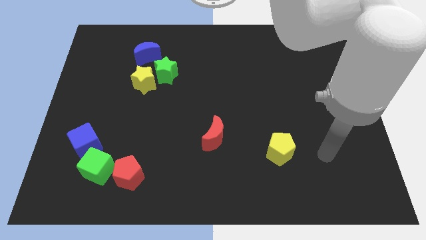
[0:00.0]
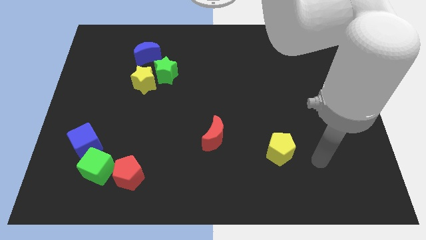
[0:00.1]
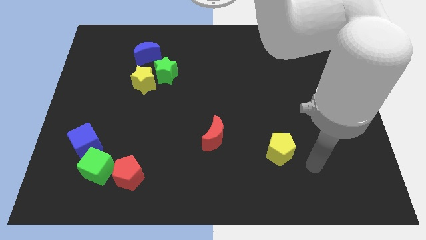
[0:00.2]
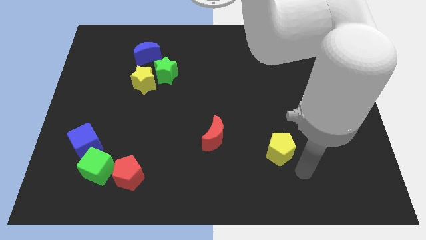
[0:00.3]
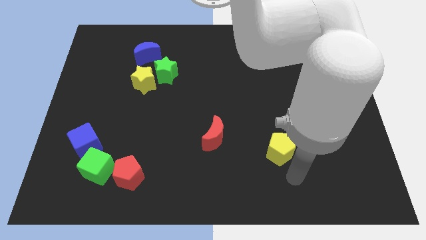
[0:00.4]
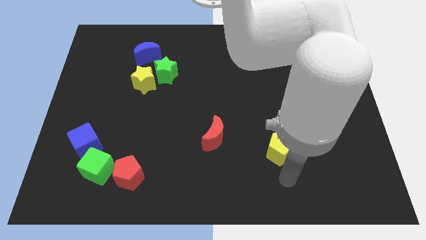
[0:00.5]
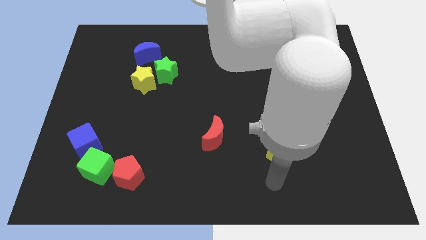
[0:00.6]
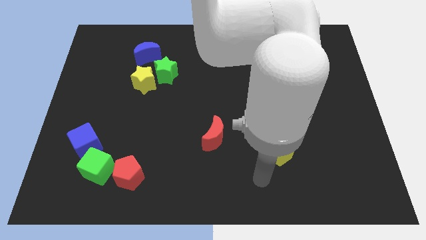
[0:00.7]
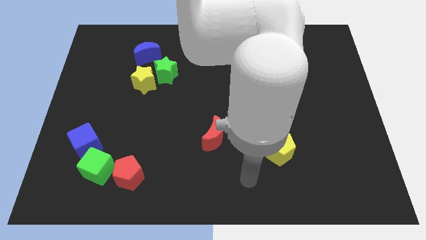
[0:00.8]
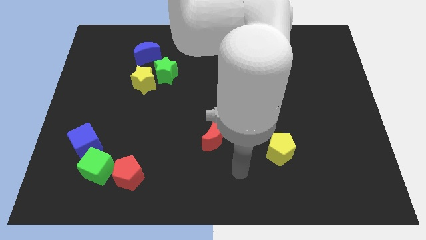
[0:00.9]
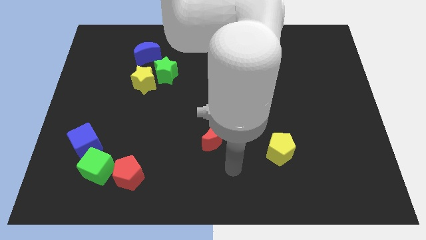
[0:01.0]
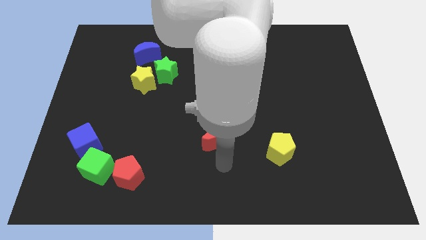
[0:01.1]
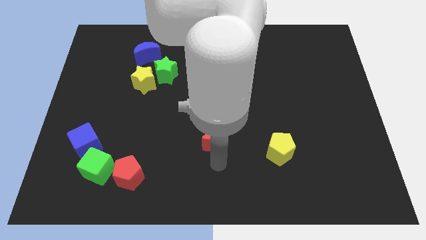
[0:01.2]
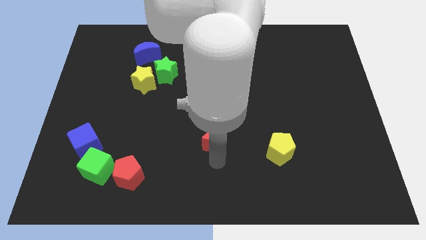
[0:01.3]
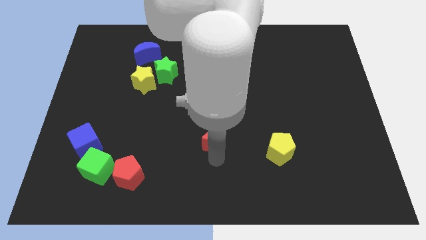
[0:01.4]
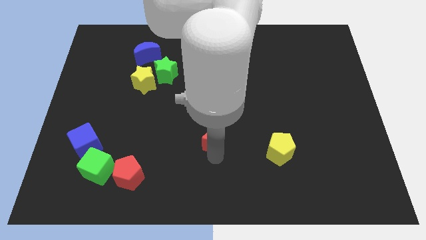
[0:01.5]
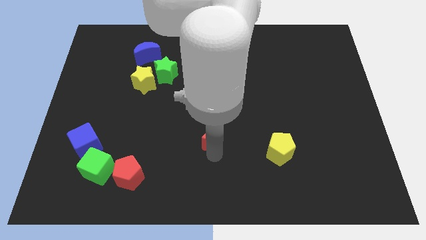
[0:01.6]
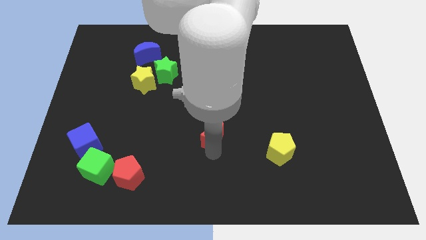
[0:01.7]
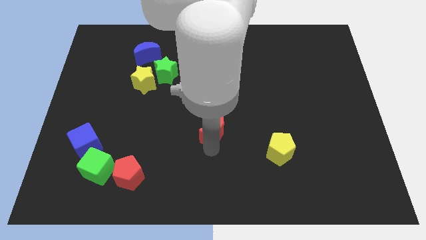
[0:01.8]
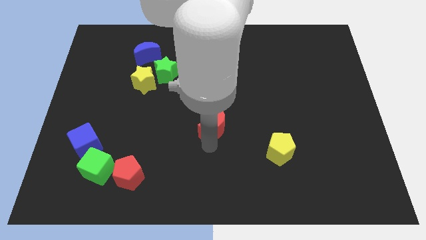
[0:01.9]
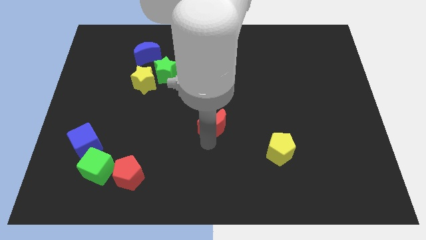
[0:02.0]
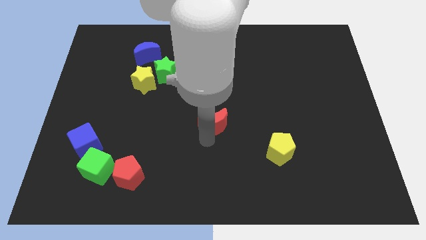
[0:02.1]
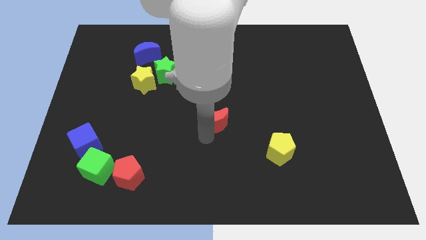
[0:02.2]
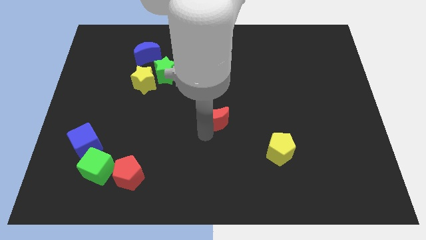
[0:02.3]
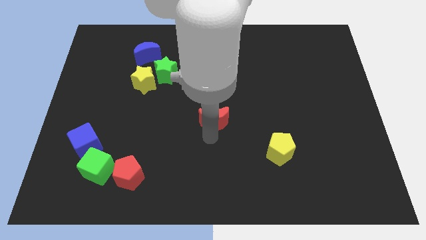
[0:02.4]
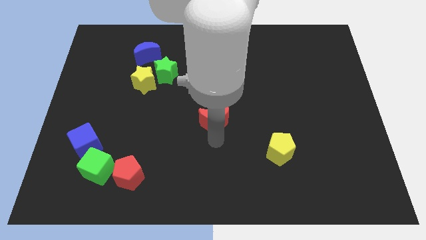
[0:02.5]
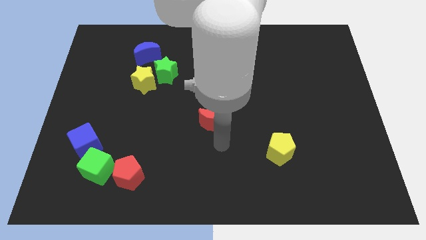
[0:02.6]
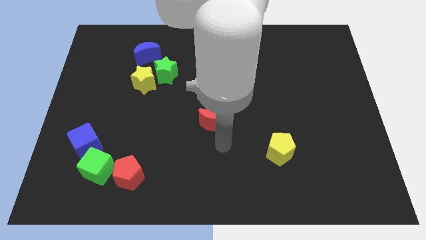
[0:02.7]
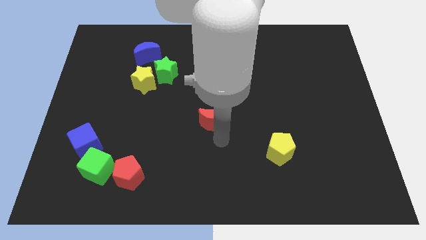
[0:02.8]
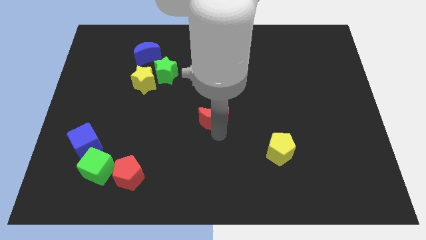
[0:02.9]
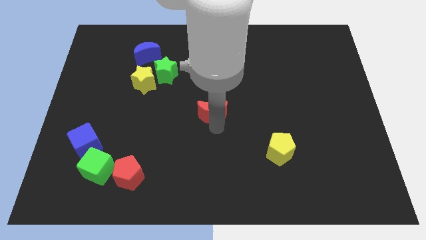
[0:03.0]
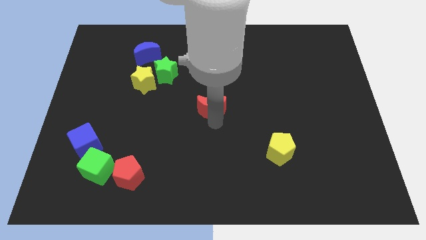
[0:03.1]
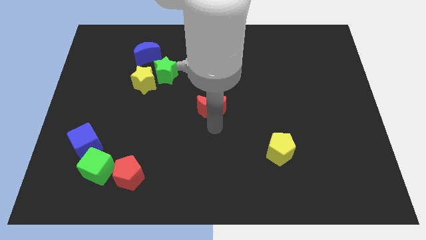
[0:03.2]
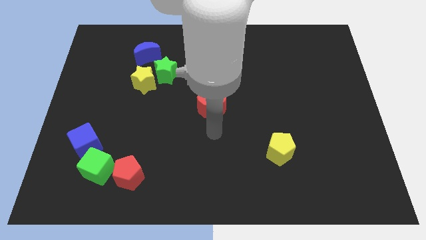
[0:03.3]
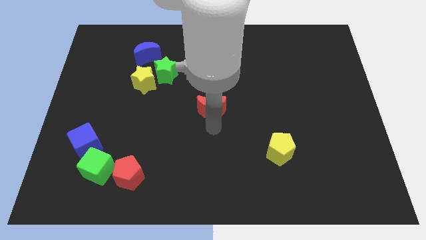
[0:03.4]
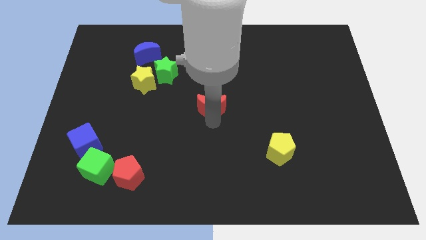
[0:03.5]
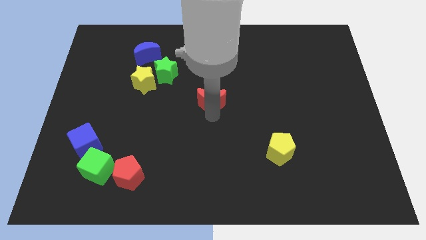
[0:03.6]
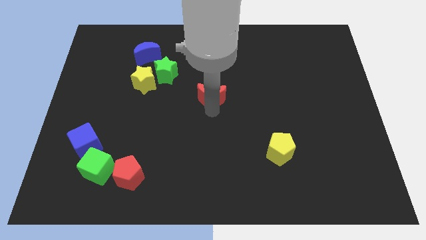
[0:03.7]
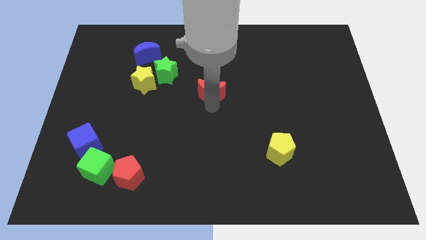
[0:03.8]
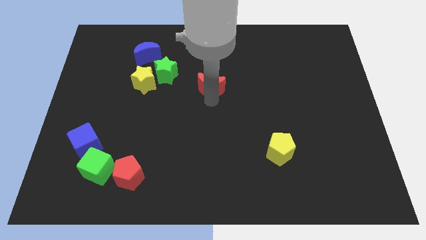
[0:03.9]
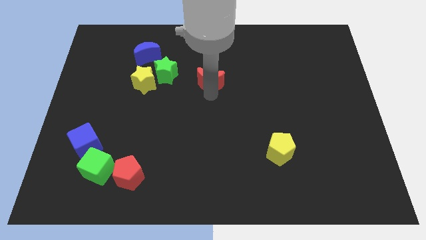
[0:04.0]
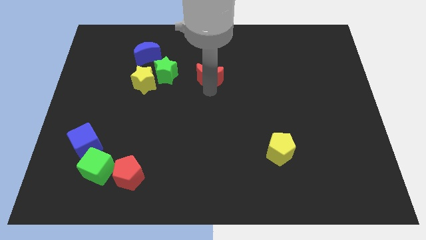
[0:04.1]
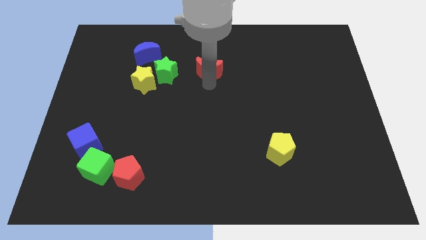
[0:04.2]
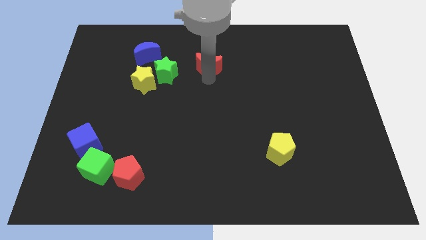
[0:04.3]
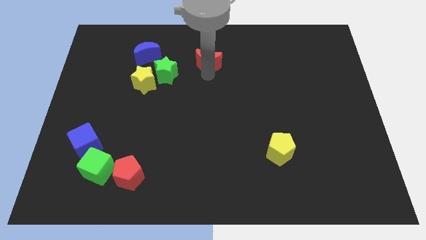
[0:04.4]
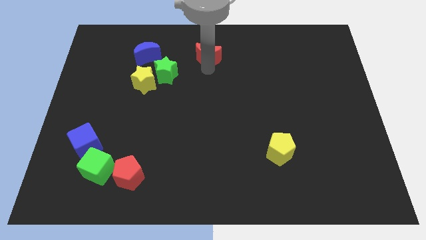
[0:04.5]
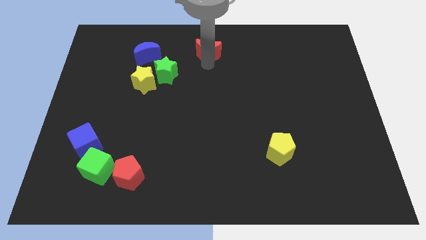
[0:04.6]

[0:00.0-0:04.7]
move the red moon to the towards your base

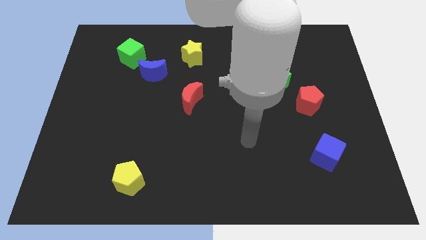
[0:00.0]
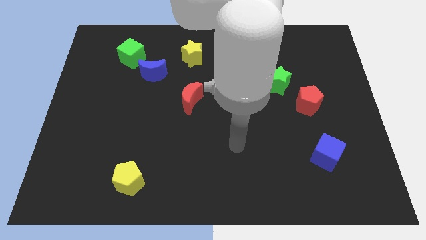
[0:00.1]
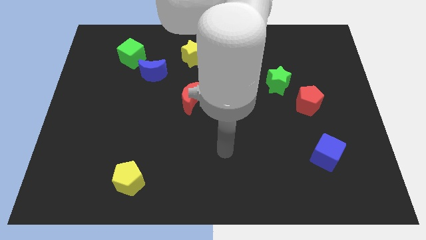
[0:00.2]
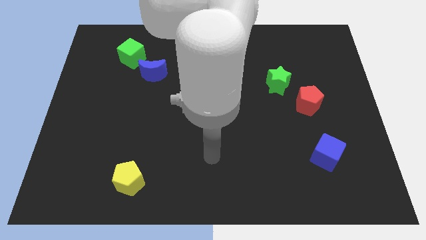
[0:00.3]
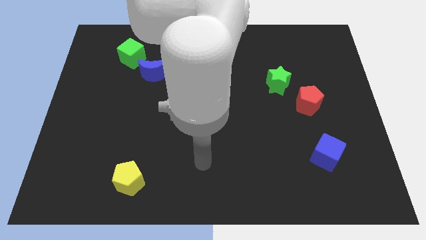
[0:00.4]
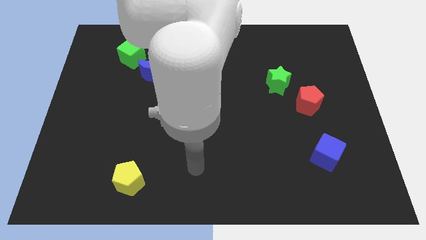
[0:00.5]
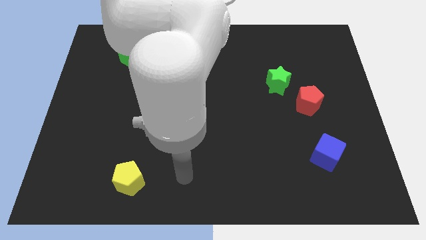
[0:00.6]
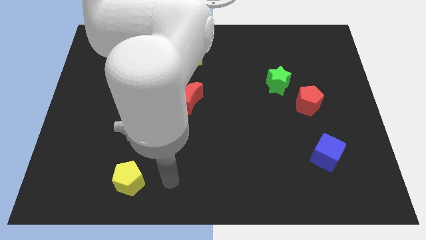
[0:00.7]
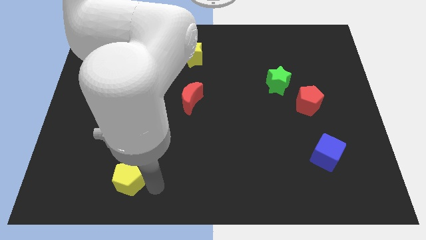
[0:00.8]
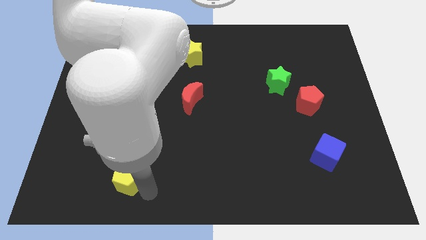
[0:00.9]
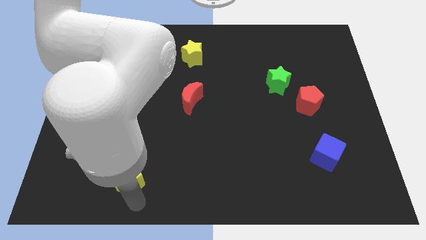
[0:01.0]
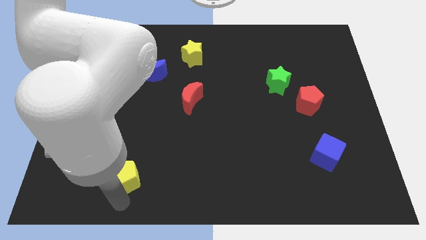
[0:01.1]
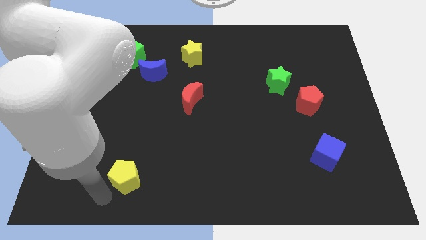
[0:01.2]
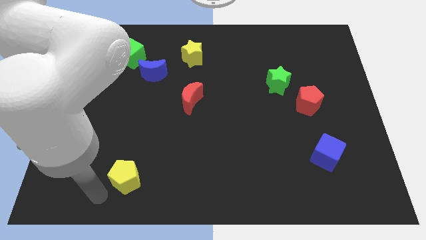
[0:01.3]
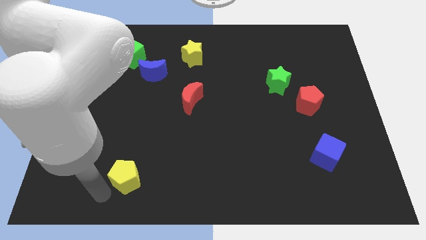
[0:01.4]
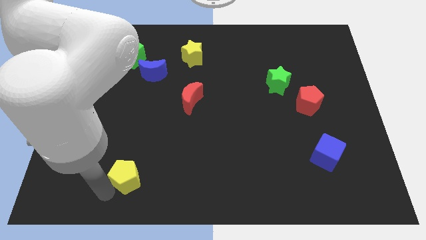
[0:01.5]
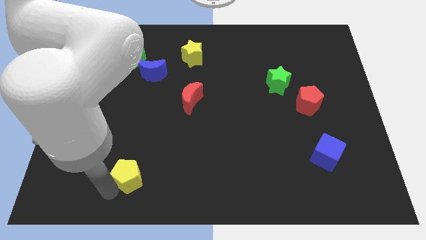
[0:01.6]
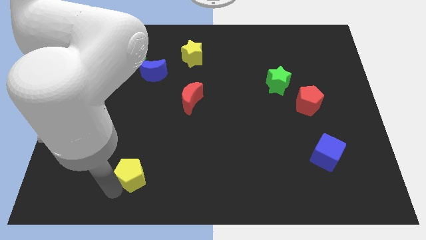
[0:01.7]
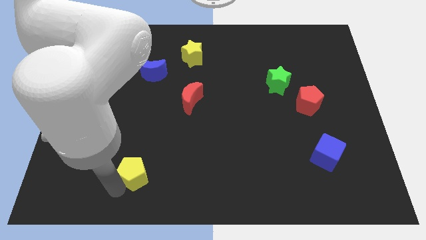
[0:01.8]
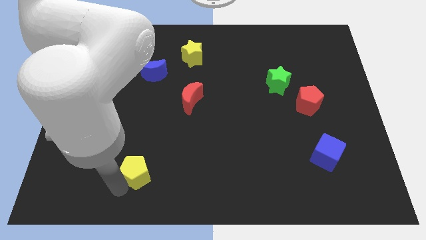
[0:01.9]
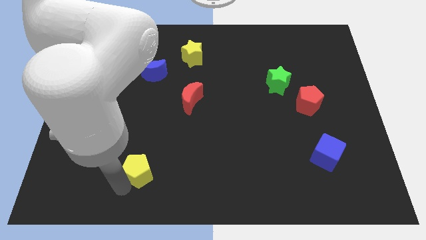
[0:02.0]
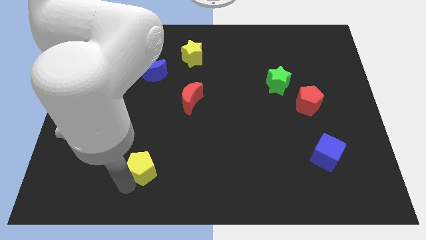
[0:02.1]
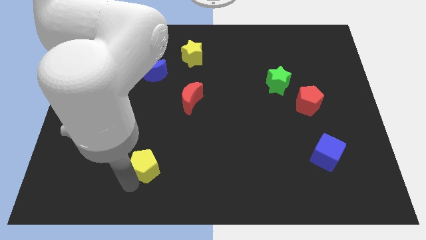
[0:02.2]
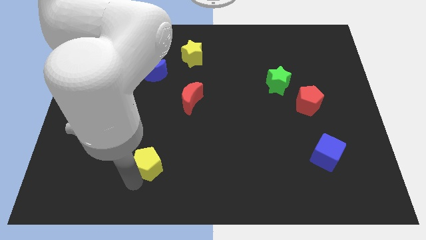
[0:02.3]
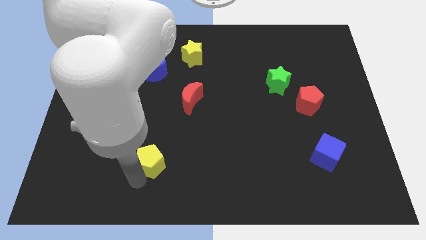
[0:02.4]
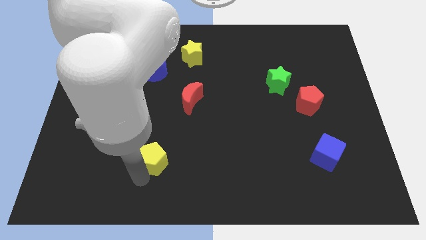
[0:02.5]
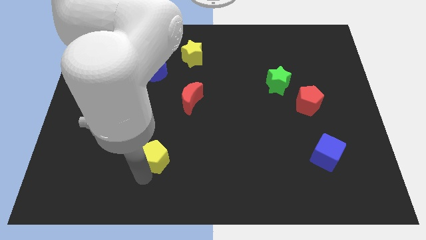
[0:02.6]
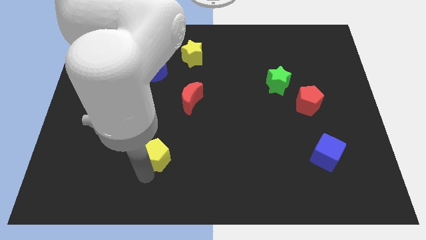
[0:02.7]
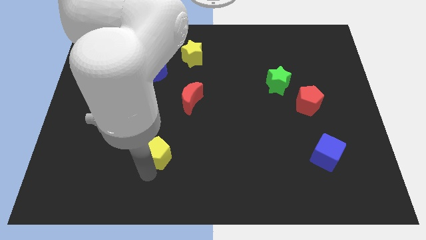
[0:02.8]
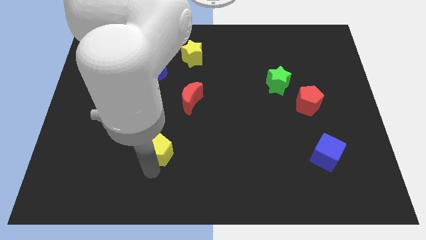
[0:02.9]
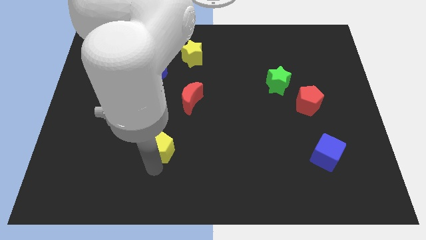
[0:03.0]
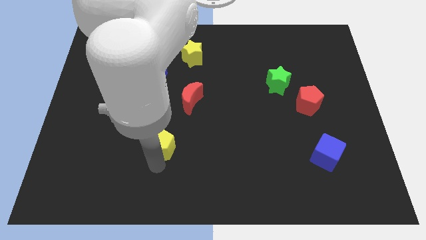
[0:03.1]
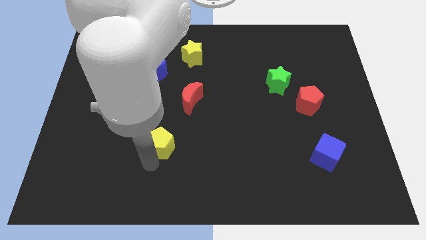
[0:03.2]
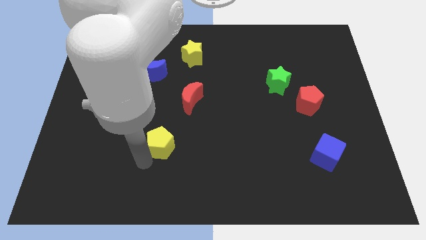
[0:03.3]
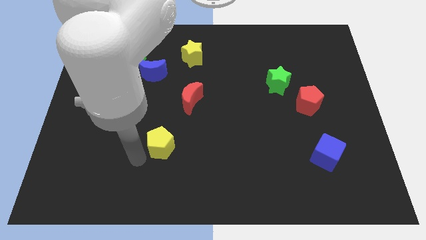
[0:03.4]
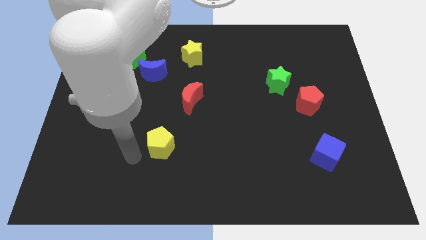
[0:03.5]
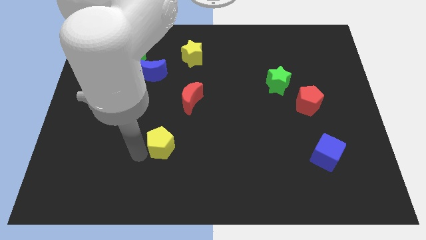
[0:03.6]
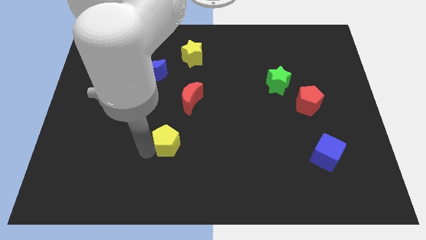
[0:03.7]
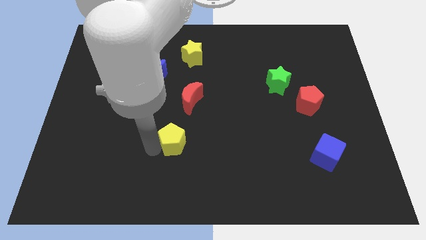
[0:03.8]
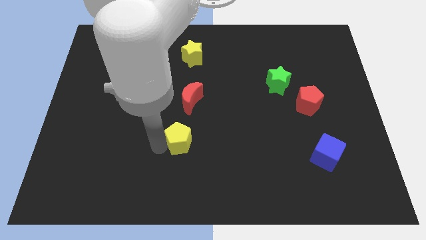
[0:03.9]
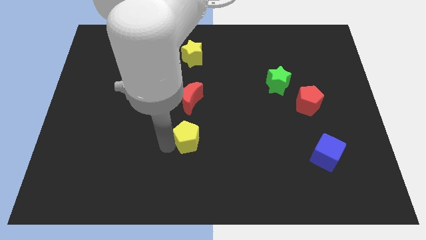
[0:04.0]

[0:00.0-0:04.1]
push the yellow pentagon to the center of the board
